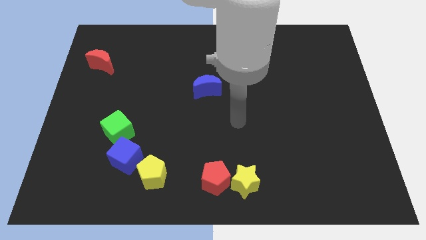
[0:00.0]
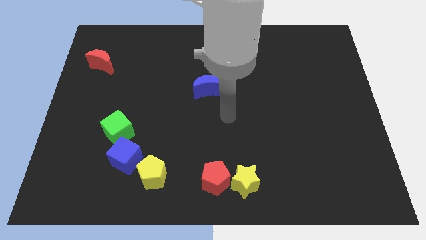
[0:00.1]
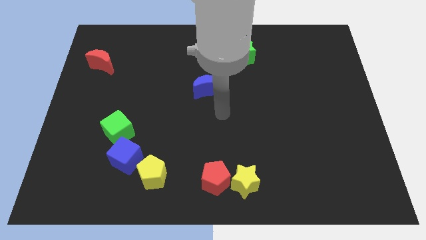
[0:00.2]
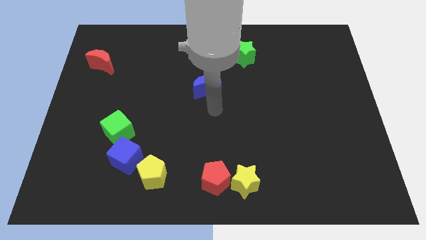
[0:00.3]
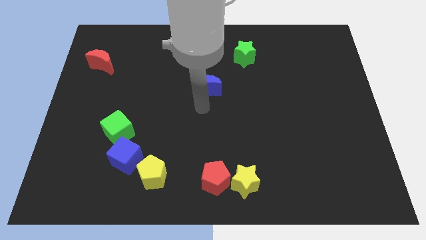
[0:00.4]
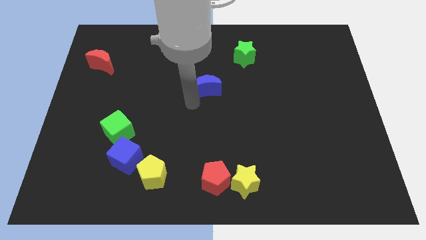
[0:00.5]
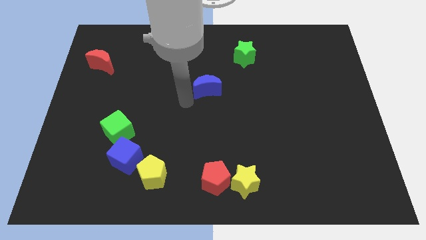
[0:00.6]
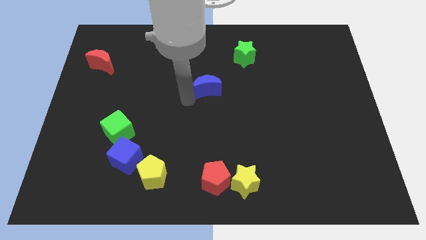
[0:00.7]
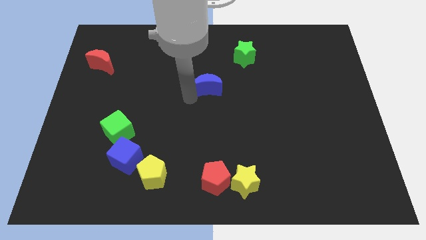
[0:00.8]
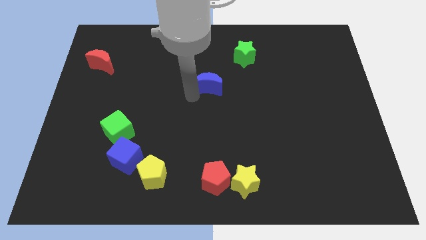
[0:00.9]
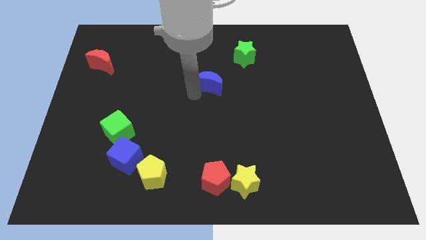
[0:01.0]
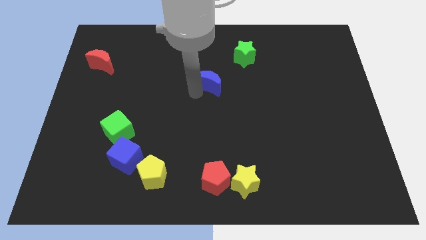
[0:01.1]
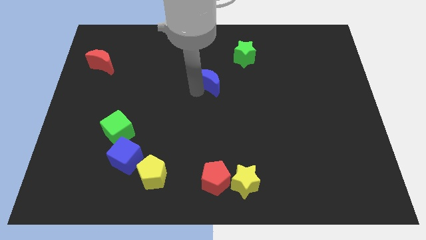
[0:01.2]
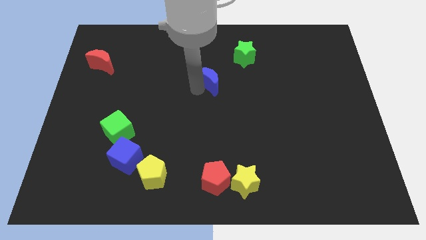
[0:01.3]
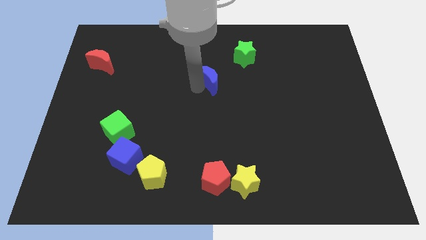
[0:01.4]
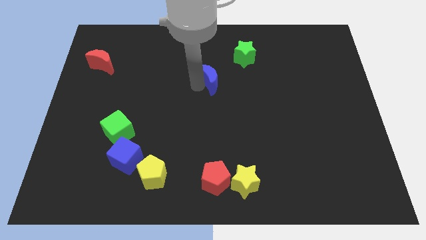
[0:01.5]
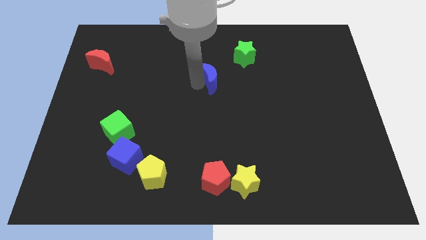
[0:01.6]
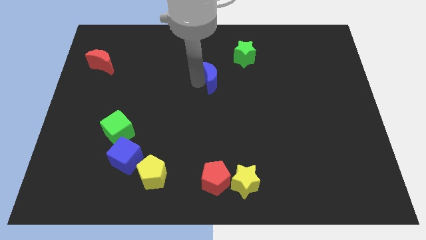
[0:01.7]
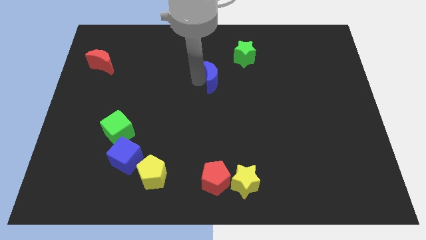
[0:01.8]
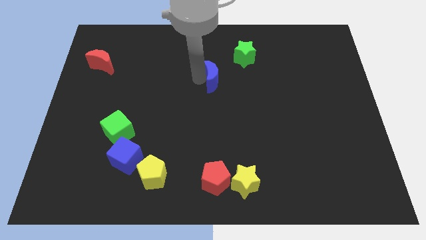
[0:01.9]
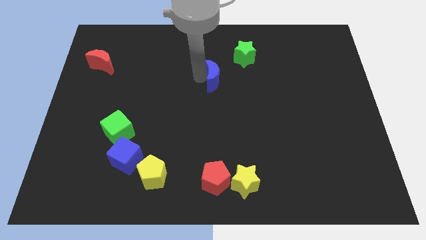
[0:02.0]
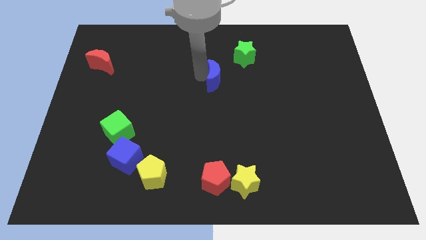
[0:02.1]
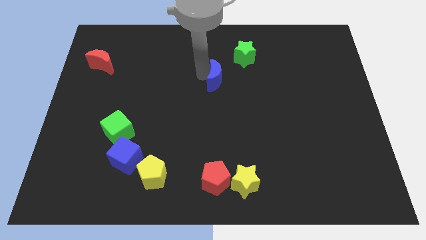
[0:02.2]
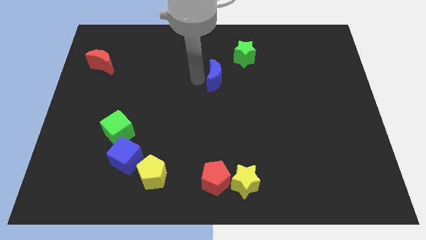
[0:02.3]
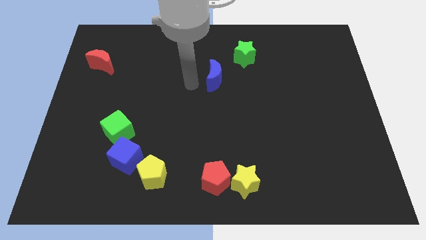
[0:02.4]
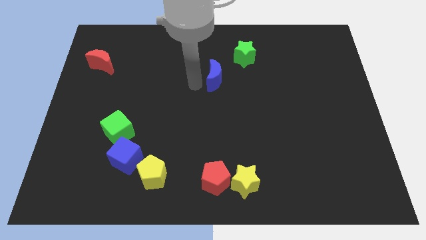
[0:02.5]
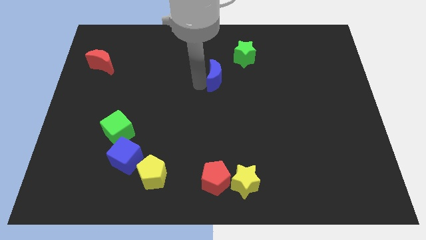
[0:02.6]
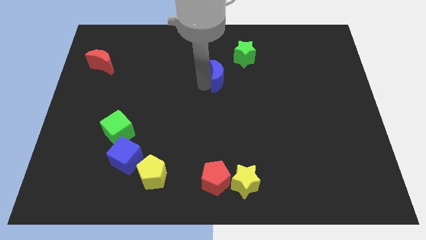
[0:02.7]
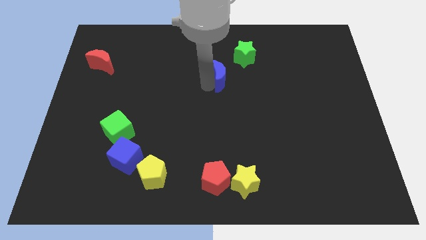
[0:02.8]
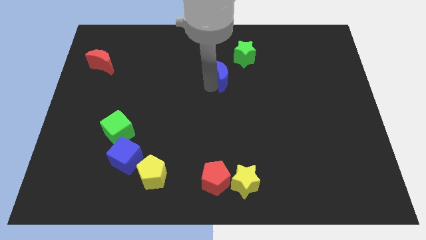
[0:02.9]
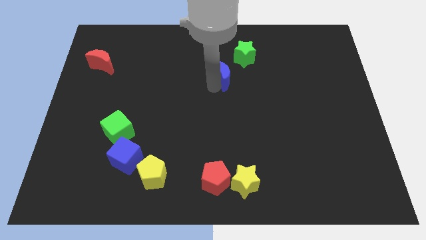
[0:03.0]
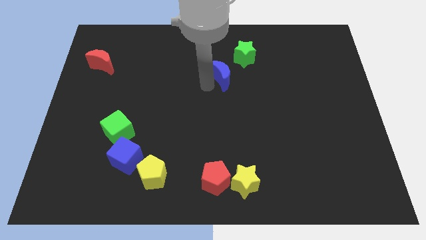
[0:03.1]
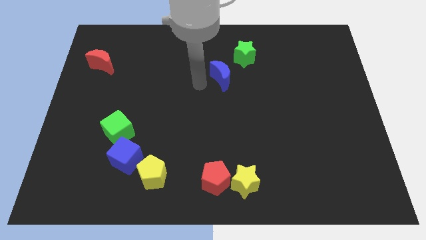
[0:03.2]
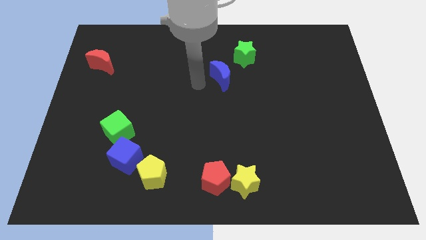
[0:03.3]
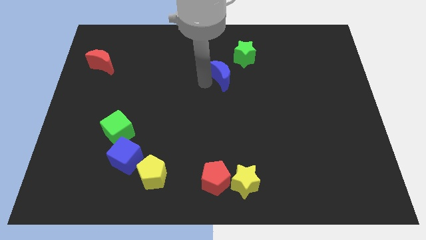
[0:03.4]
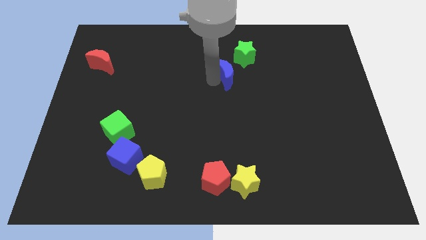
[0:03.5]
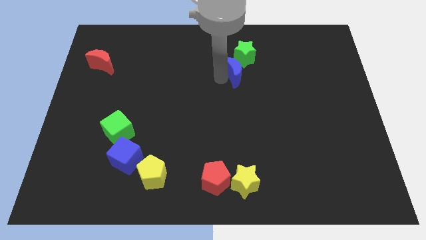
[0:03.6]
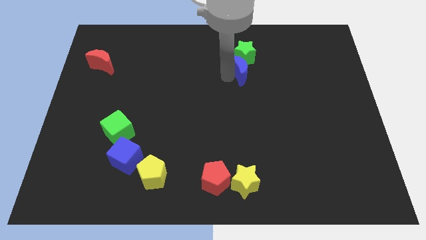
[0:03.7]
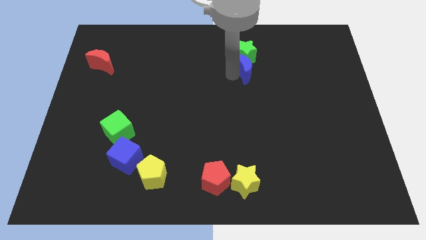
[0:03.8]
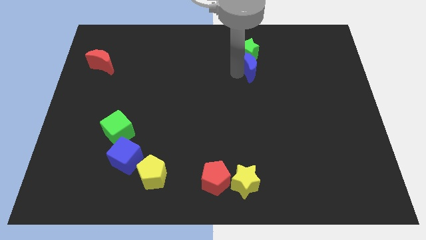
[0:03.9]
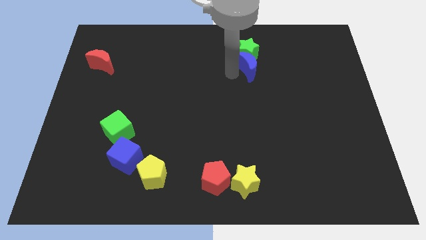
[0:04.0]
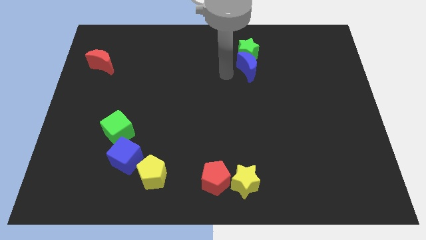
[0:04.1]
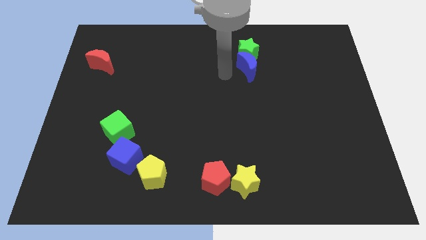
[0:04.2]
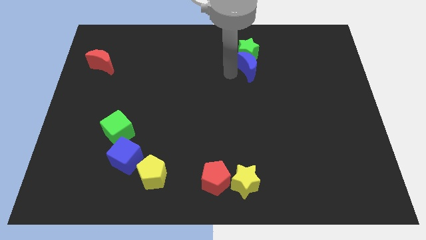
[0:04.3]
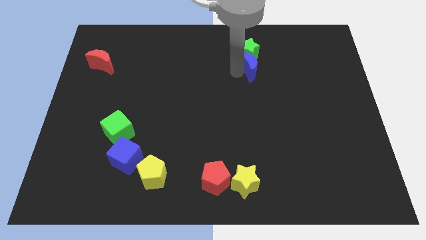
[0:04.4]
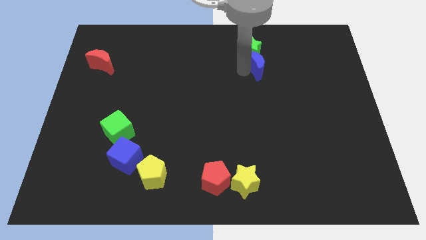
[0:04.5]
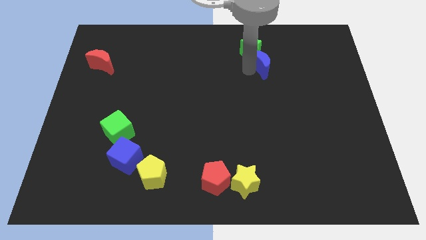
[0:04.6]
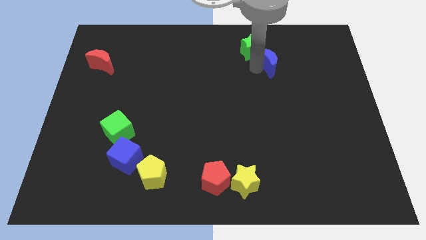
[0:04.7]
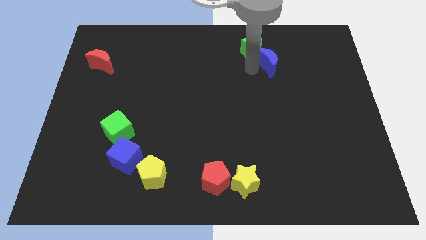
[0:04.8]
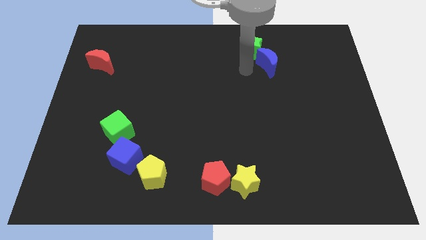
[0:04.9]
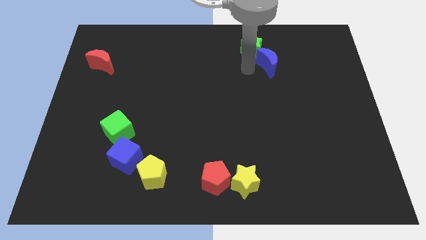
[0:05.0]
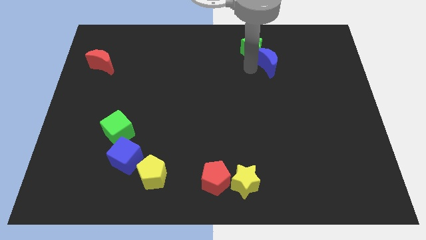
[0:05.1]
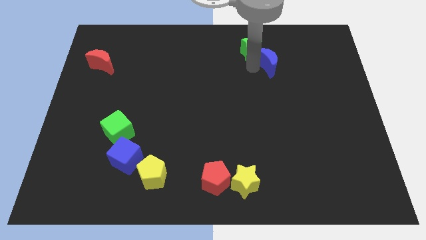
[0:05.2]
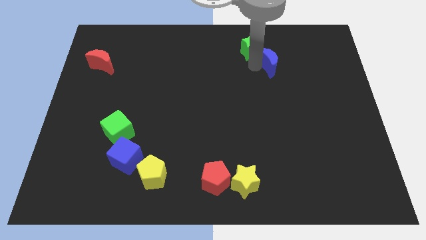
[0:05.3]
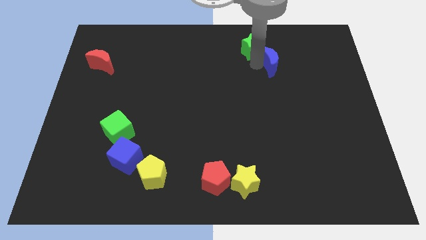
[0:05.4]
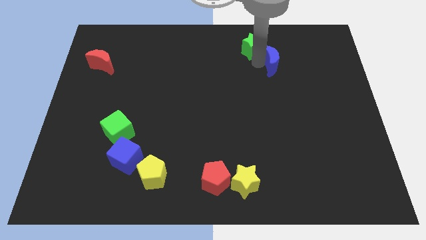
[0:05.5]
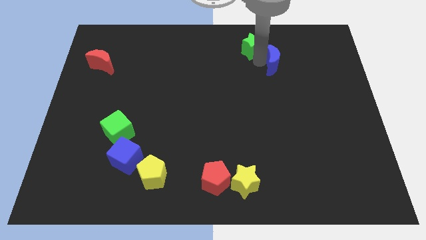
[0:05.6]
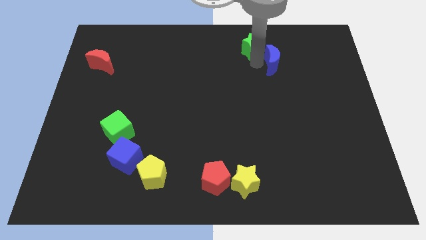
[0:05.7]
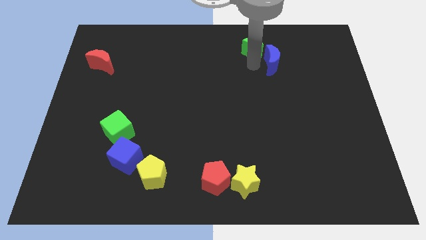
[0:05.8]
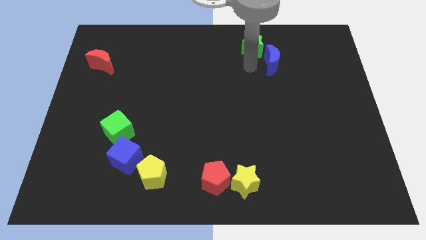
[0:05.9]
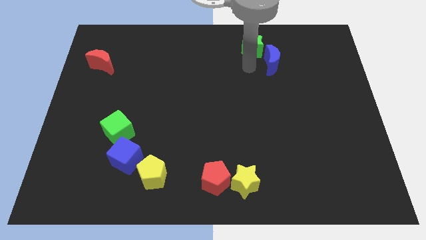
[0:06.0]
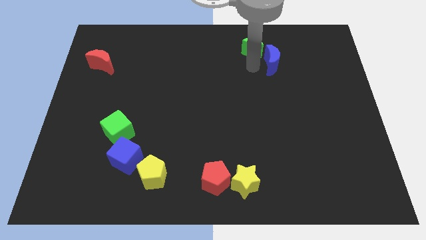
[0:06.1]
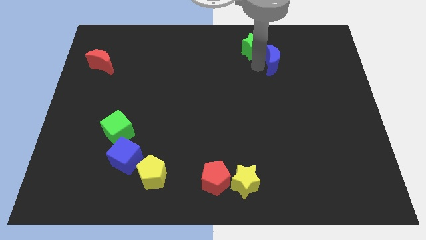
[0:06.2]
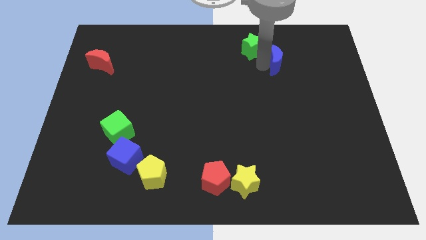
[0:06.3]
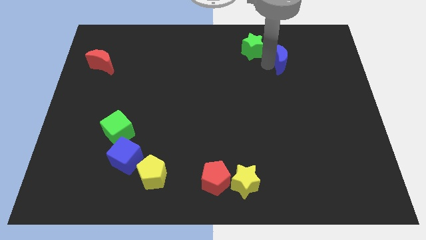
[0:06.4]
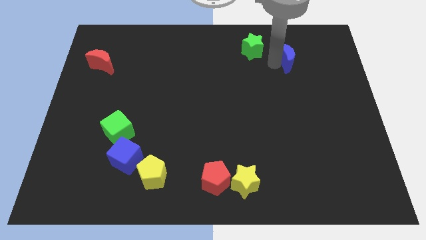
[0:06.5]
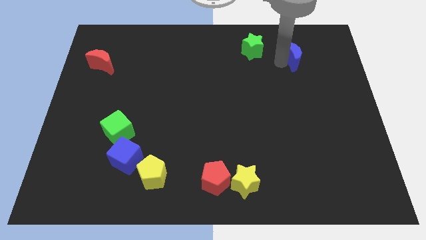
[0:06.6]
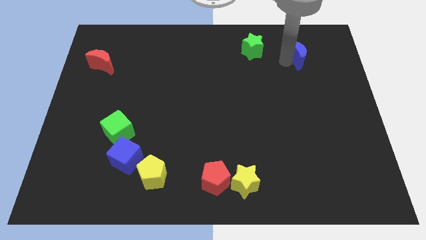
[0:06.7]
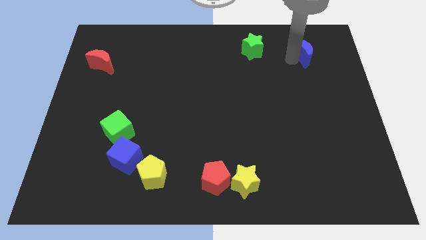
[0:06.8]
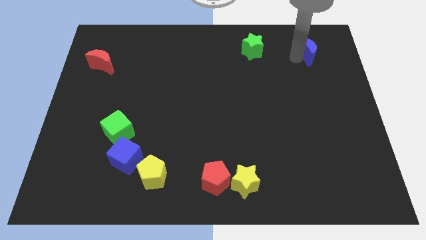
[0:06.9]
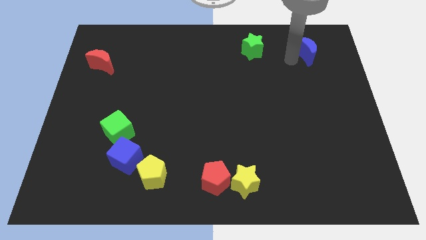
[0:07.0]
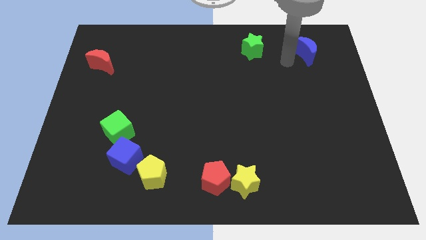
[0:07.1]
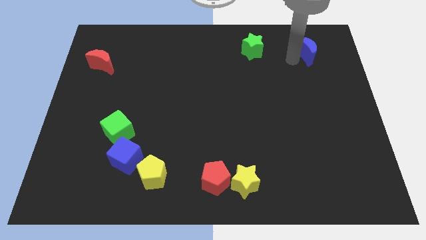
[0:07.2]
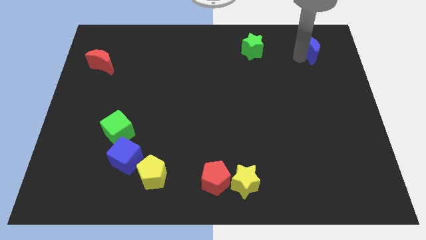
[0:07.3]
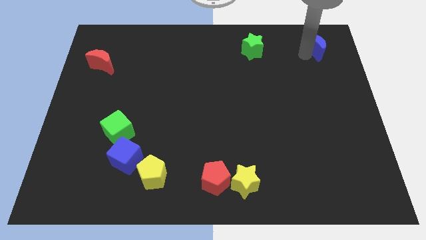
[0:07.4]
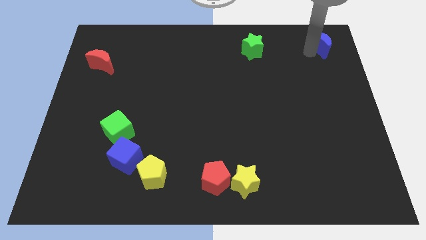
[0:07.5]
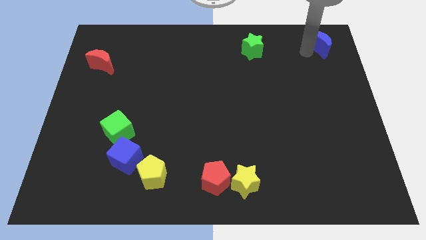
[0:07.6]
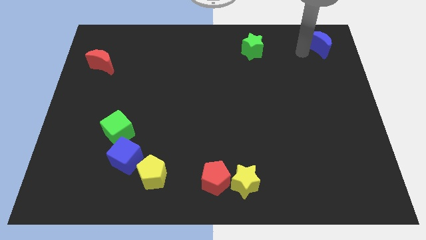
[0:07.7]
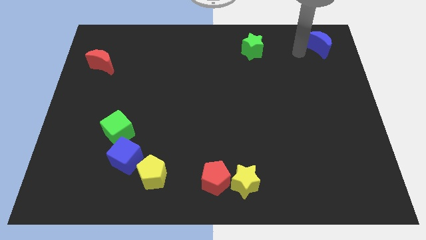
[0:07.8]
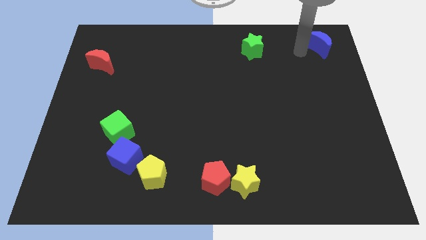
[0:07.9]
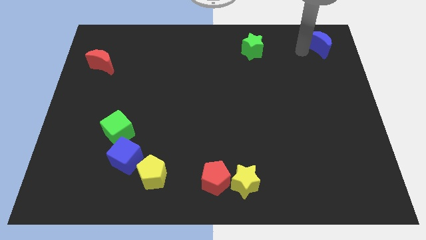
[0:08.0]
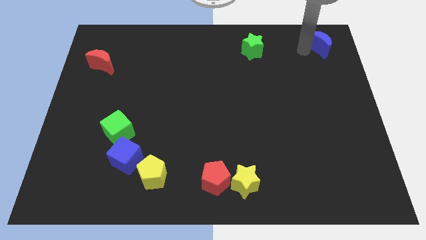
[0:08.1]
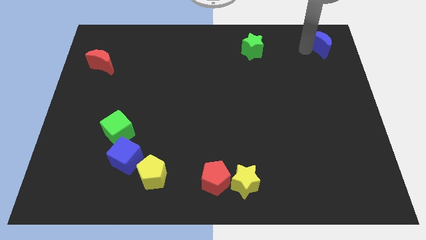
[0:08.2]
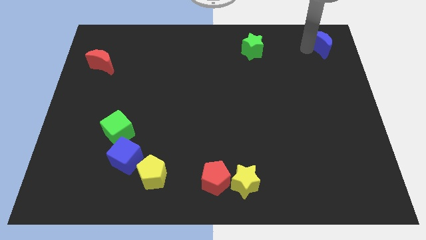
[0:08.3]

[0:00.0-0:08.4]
push the blue moon to the top right
